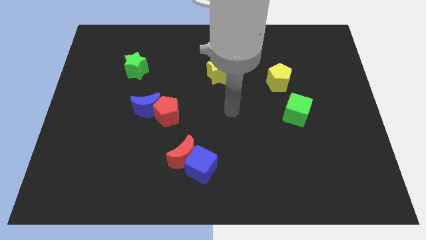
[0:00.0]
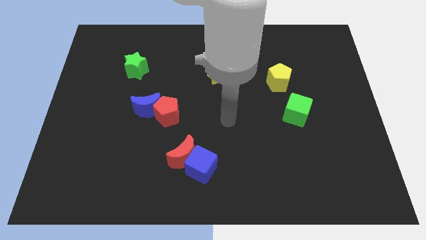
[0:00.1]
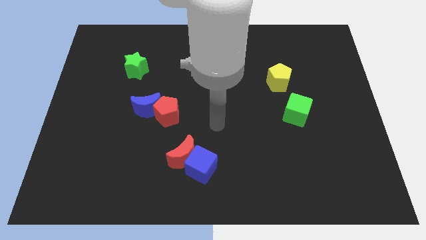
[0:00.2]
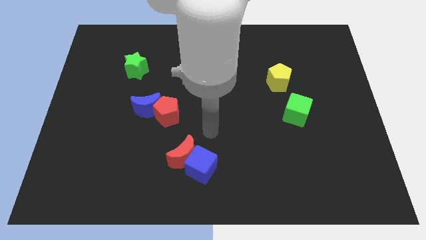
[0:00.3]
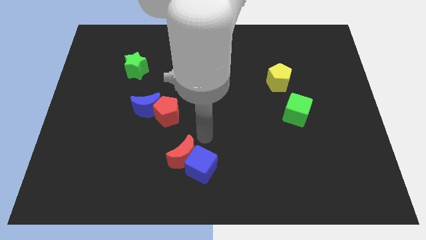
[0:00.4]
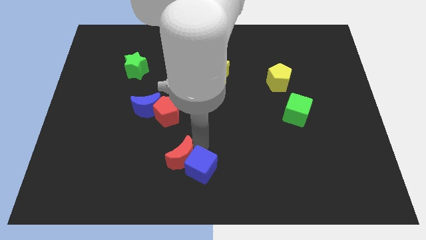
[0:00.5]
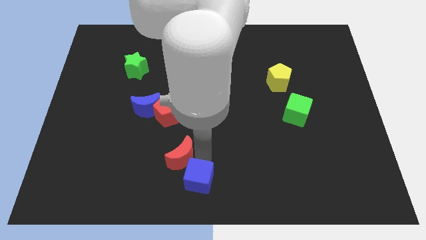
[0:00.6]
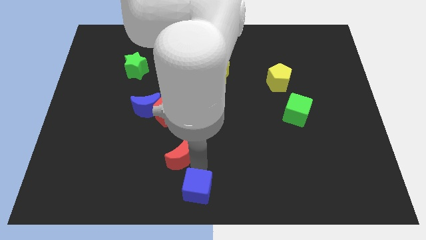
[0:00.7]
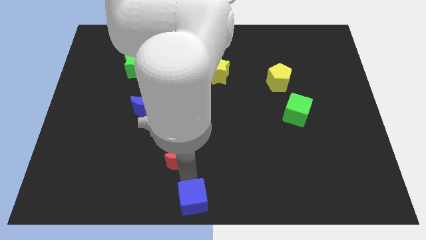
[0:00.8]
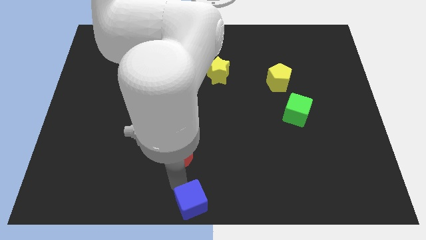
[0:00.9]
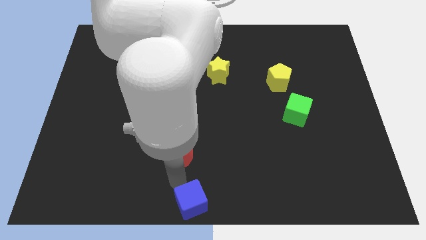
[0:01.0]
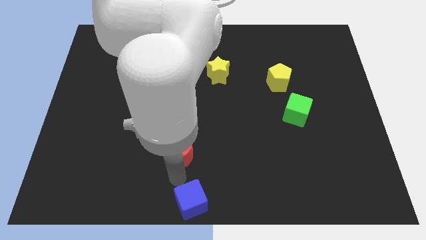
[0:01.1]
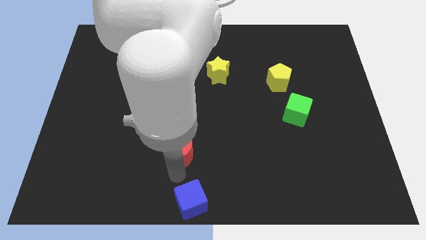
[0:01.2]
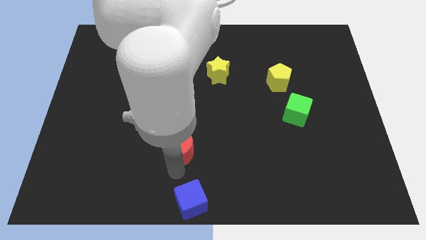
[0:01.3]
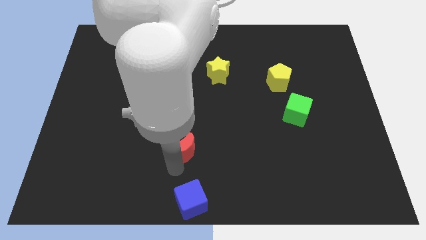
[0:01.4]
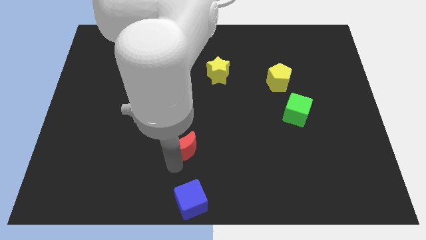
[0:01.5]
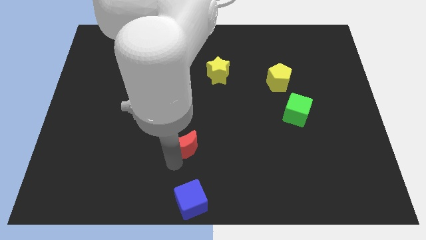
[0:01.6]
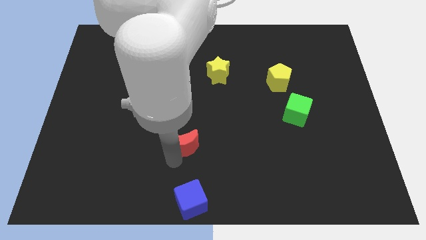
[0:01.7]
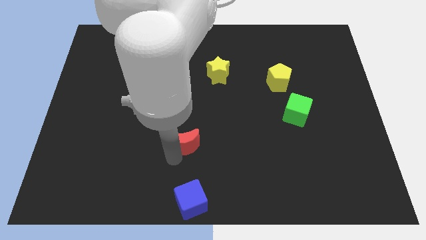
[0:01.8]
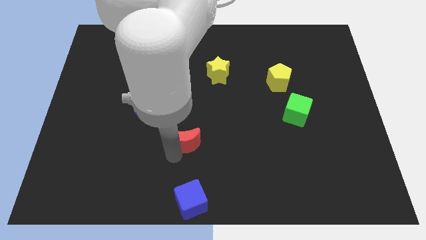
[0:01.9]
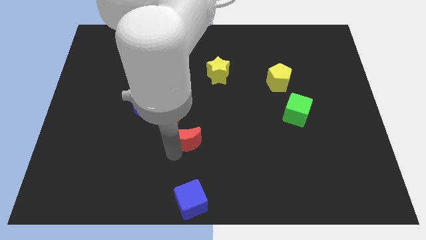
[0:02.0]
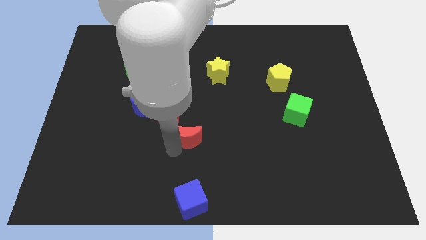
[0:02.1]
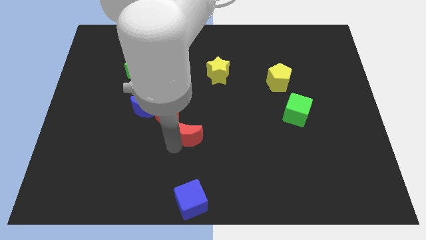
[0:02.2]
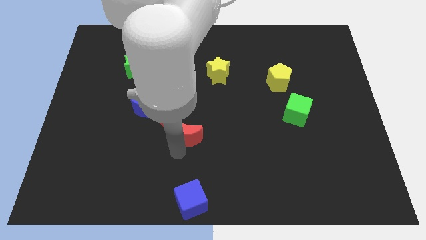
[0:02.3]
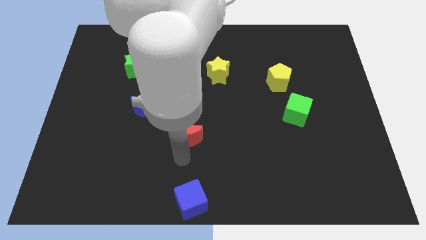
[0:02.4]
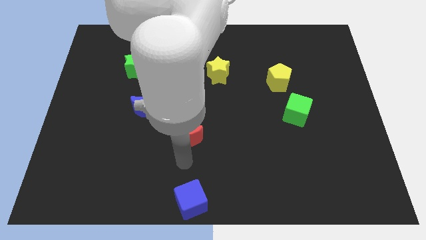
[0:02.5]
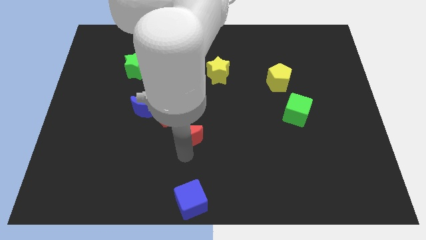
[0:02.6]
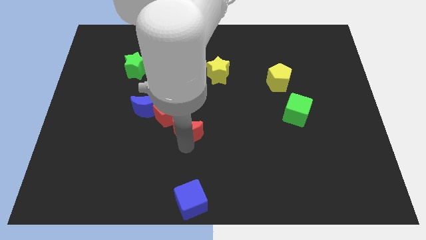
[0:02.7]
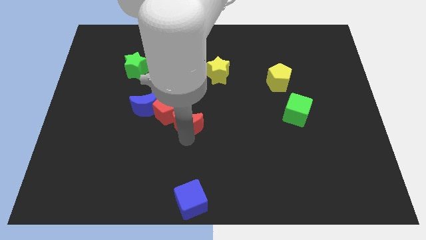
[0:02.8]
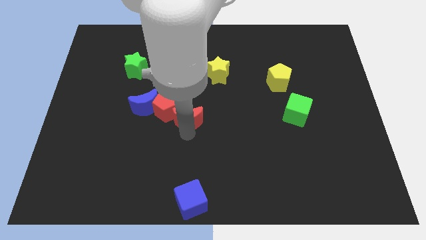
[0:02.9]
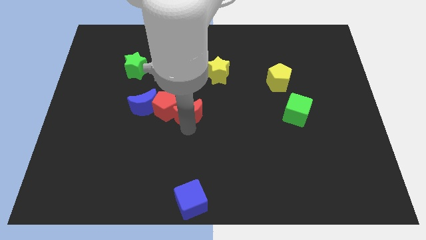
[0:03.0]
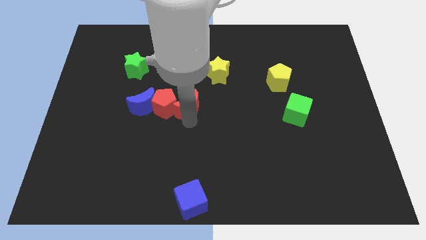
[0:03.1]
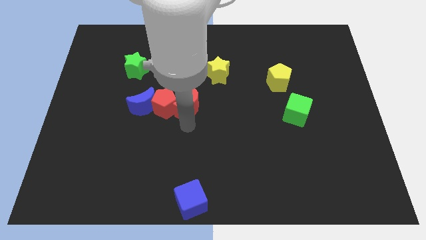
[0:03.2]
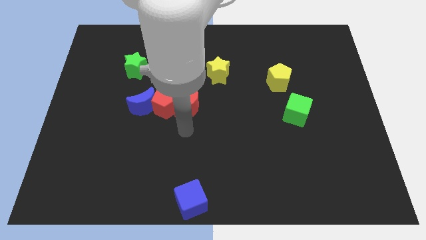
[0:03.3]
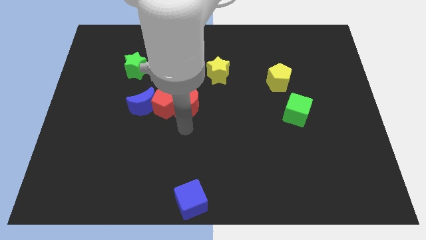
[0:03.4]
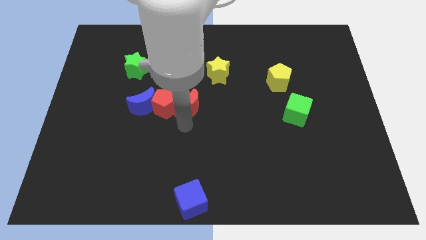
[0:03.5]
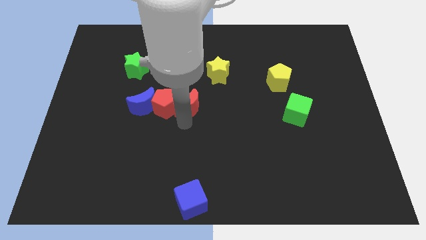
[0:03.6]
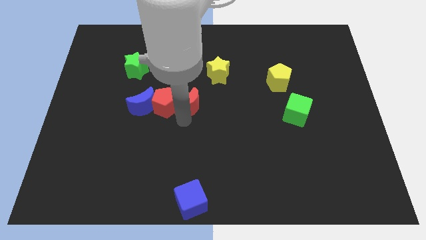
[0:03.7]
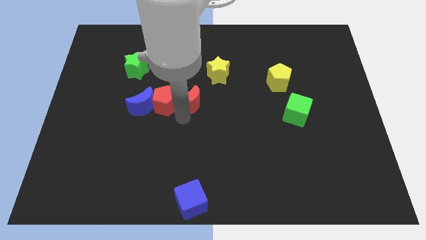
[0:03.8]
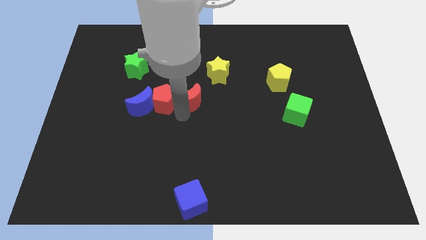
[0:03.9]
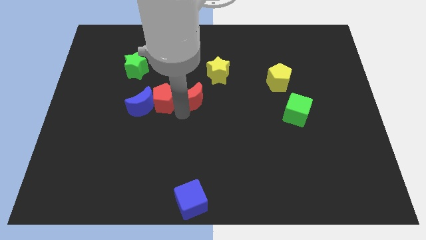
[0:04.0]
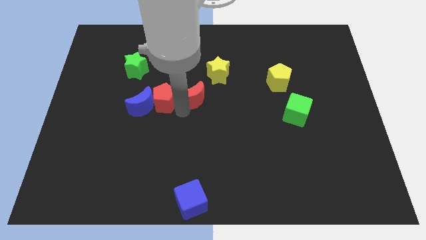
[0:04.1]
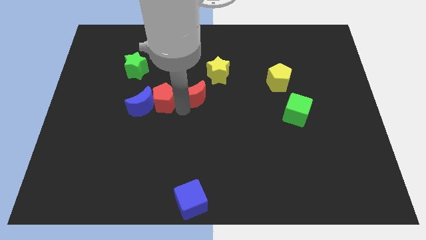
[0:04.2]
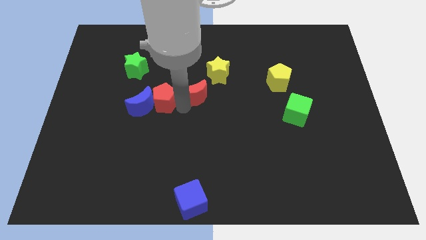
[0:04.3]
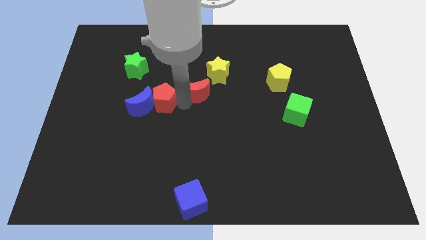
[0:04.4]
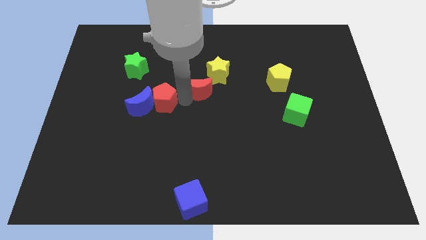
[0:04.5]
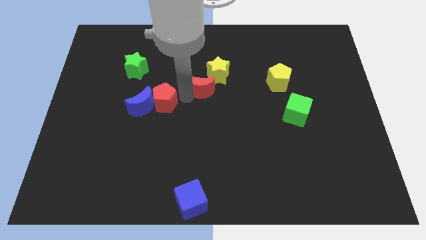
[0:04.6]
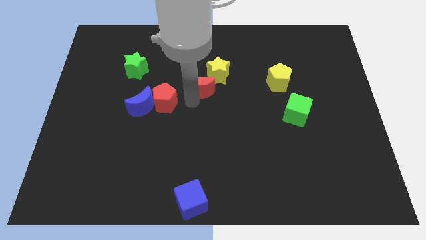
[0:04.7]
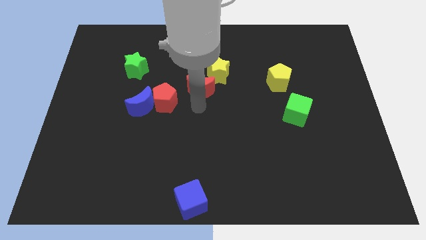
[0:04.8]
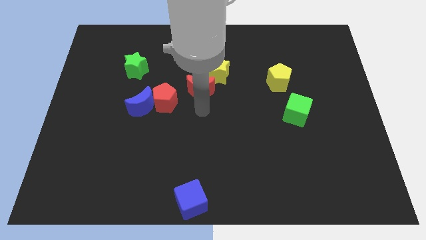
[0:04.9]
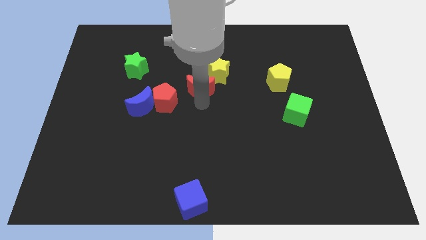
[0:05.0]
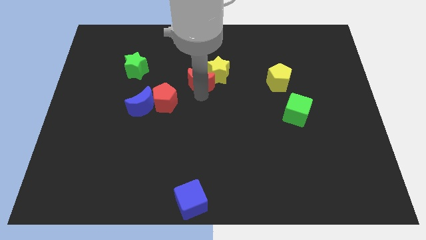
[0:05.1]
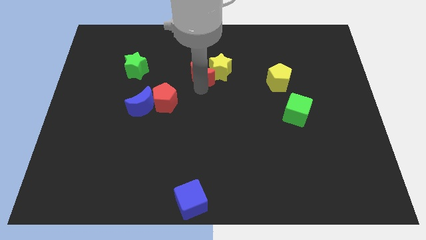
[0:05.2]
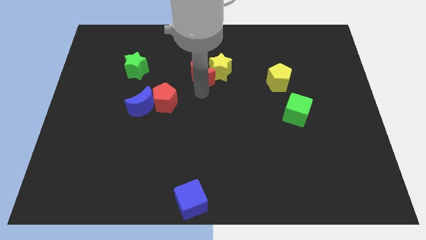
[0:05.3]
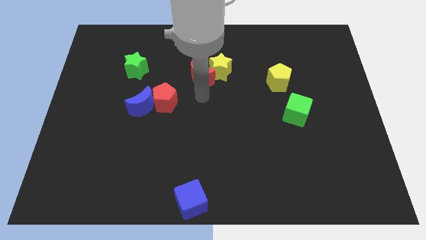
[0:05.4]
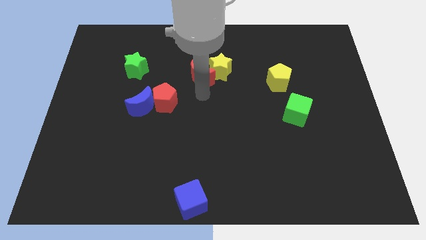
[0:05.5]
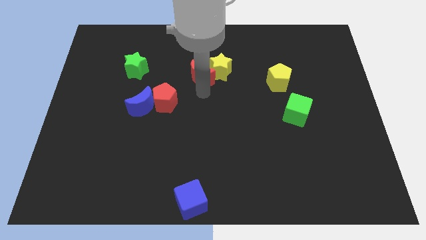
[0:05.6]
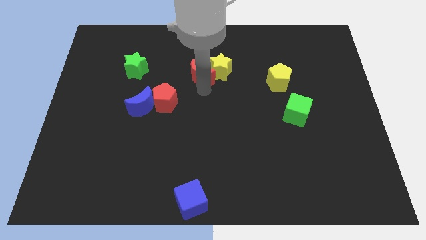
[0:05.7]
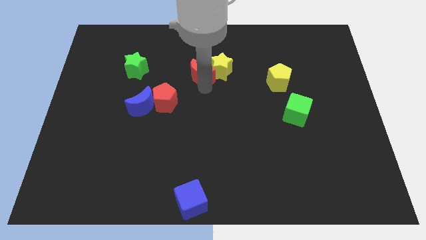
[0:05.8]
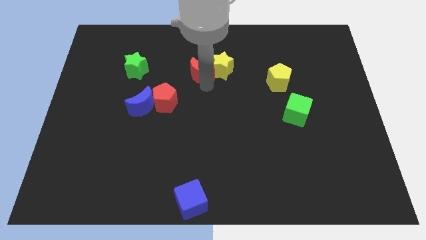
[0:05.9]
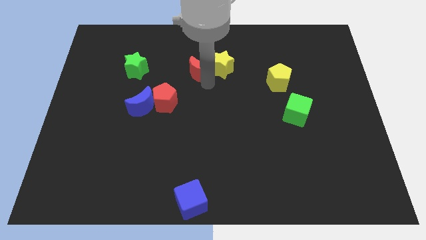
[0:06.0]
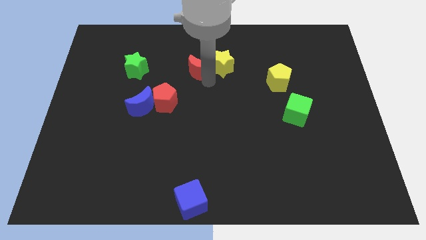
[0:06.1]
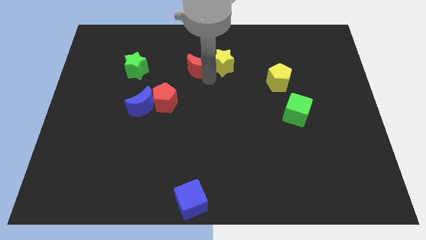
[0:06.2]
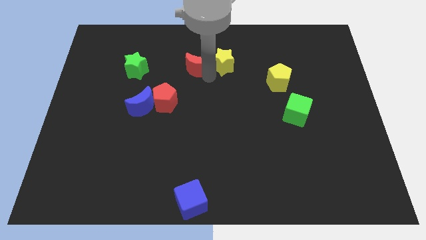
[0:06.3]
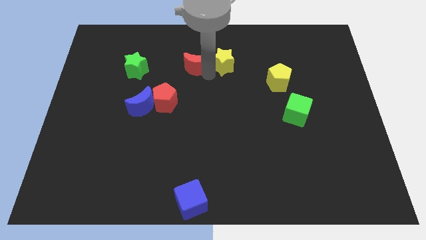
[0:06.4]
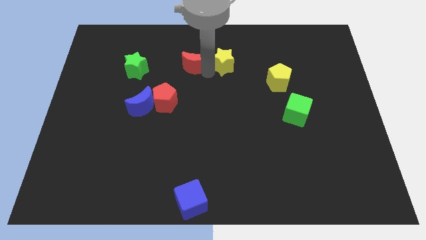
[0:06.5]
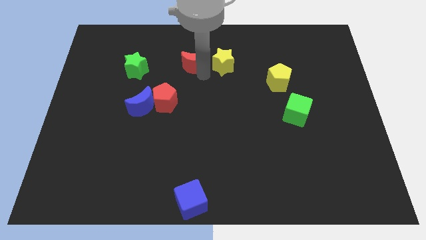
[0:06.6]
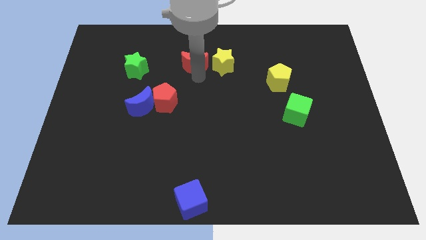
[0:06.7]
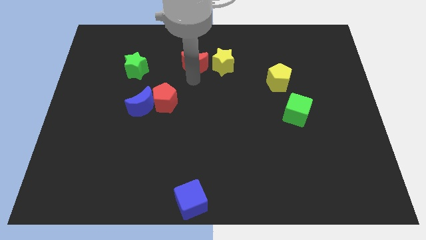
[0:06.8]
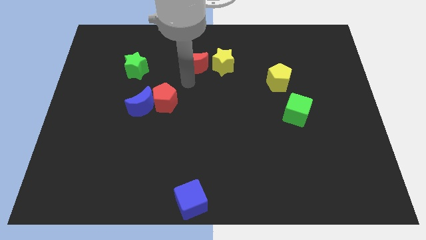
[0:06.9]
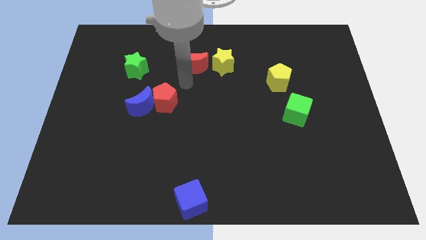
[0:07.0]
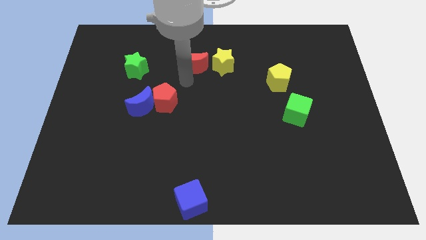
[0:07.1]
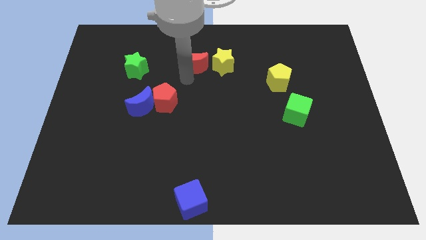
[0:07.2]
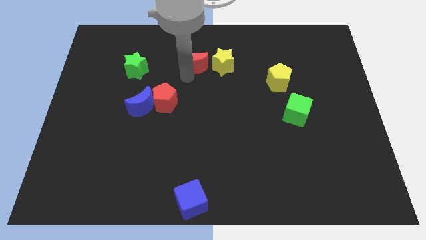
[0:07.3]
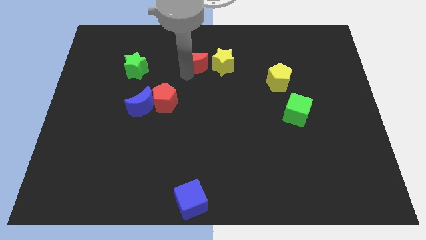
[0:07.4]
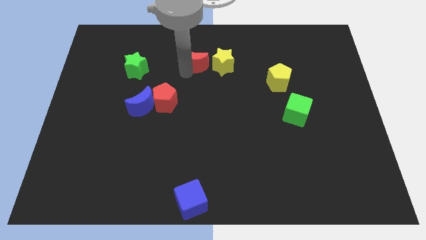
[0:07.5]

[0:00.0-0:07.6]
put the red moon diagonally up and to the left of the yellow star
